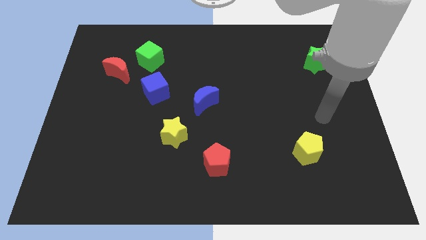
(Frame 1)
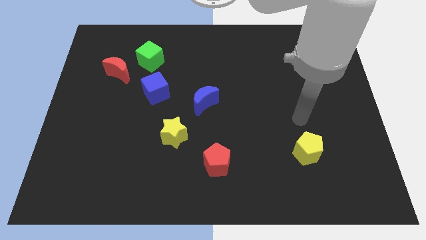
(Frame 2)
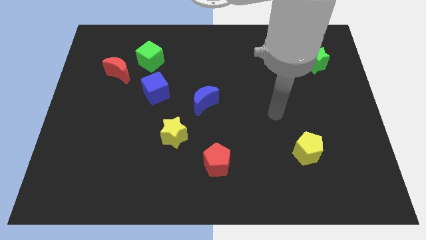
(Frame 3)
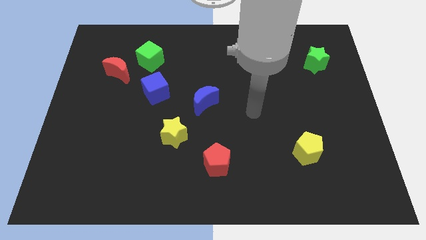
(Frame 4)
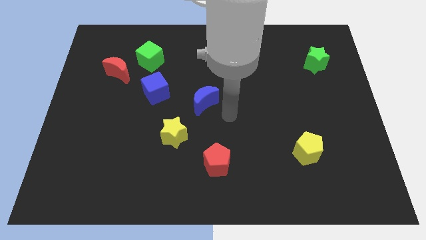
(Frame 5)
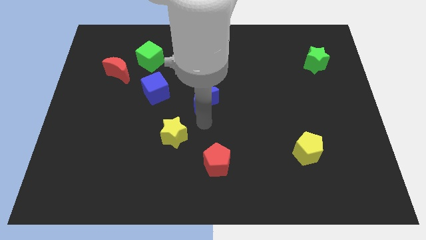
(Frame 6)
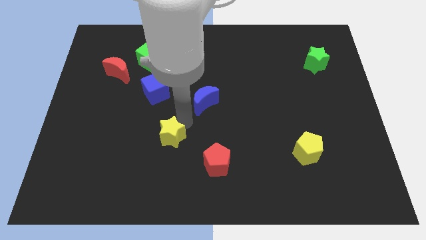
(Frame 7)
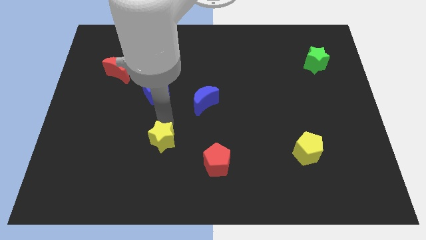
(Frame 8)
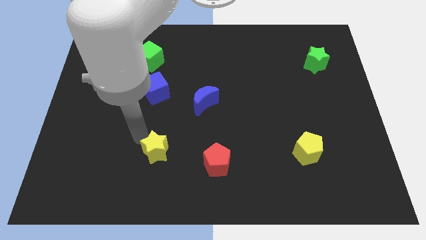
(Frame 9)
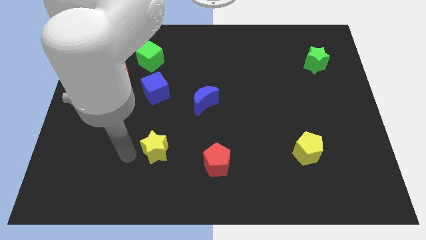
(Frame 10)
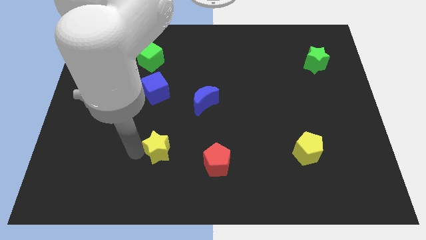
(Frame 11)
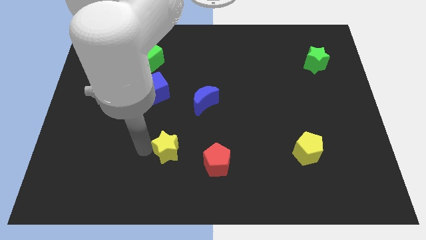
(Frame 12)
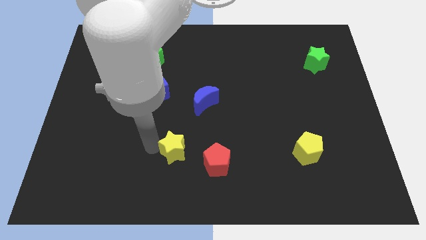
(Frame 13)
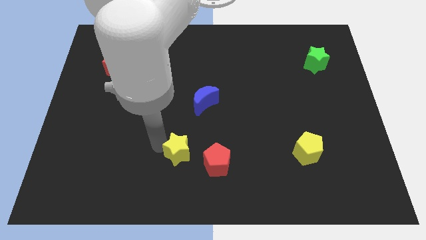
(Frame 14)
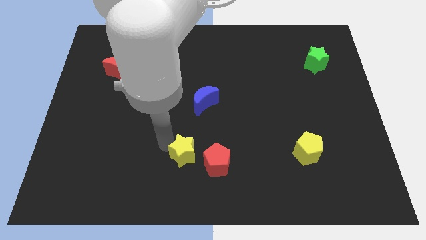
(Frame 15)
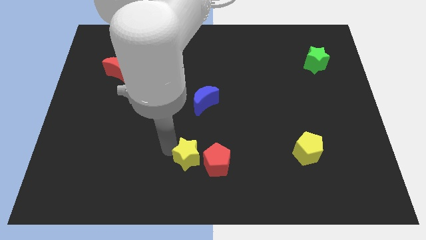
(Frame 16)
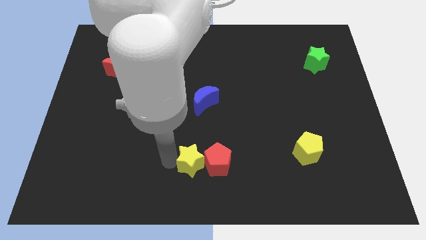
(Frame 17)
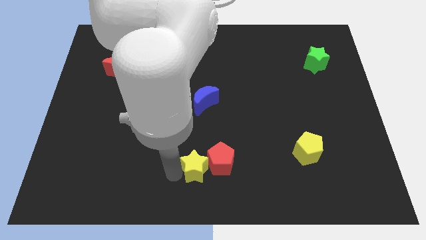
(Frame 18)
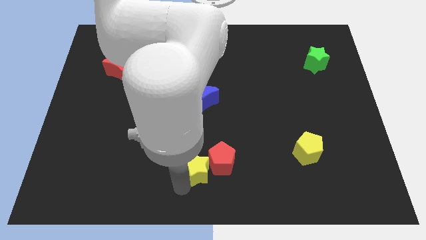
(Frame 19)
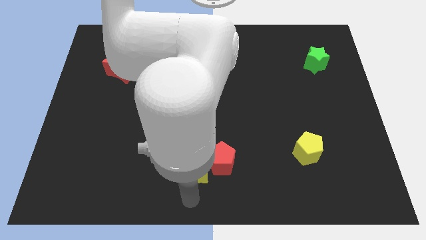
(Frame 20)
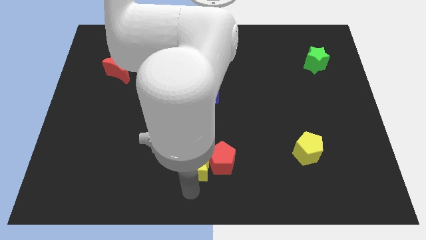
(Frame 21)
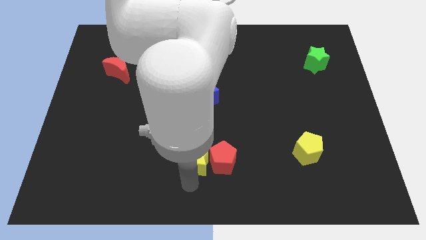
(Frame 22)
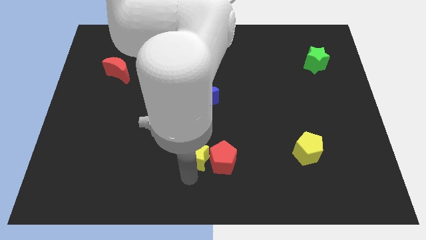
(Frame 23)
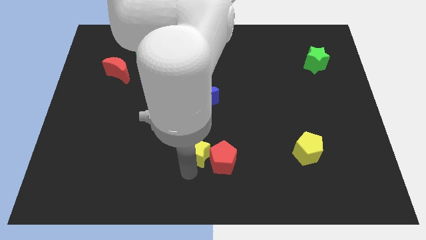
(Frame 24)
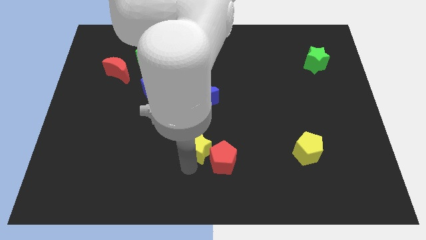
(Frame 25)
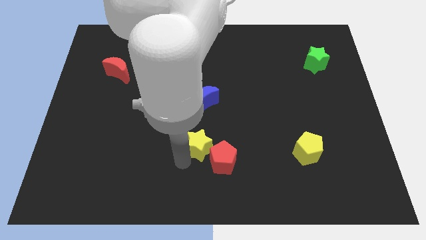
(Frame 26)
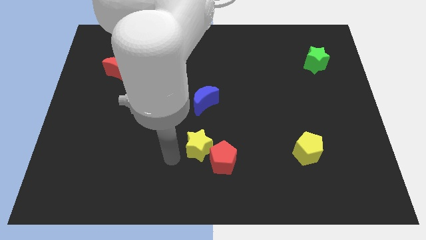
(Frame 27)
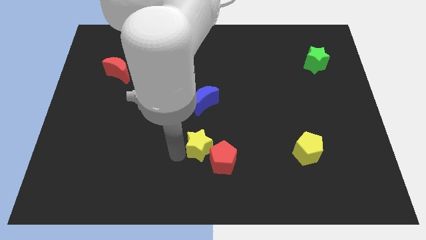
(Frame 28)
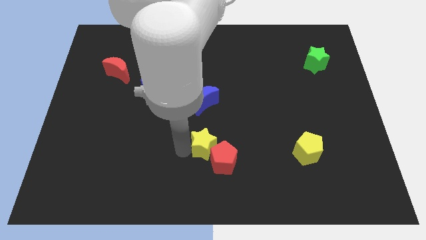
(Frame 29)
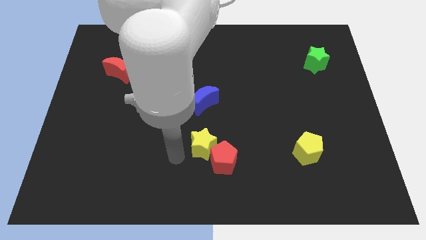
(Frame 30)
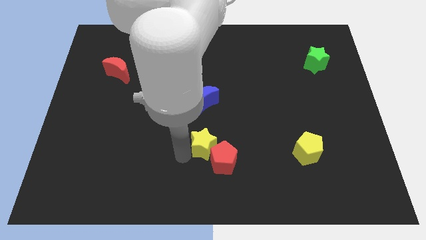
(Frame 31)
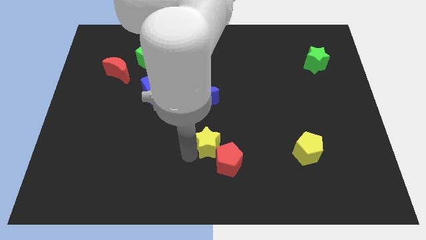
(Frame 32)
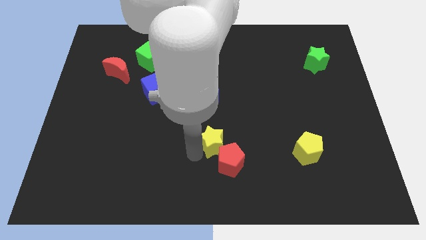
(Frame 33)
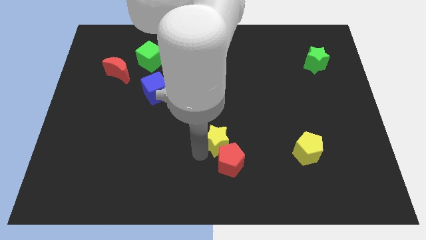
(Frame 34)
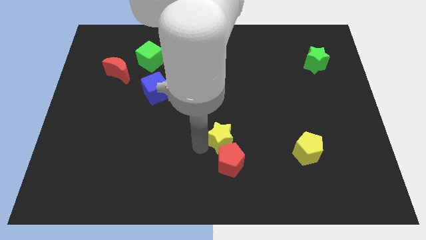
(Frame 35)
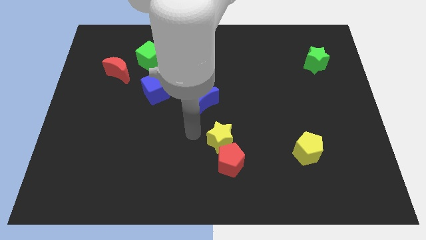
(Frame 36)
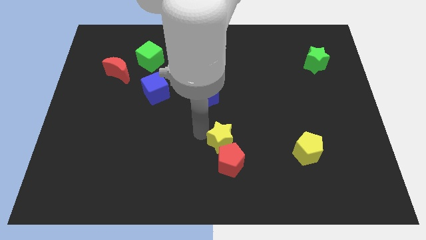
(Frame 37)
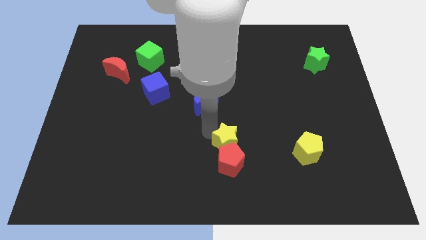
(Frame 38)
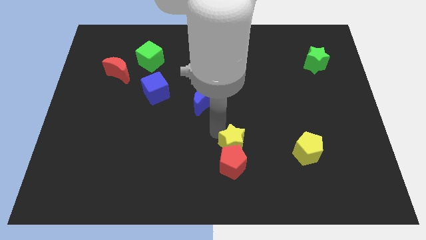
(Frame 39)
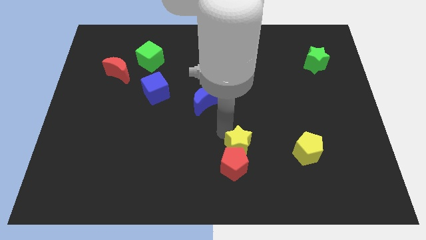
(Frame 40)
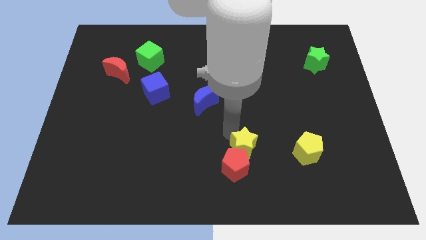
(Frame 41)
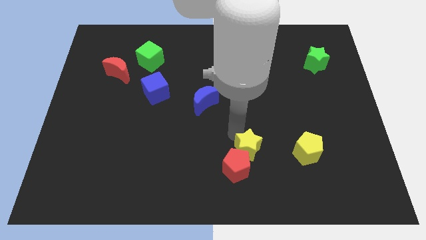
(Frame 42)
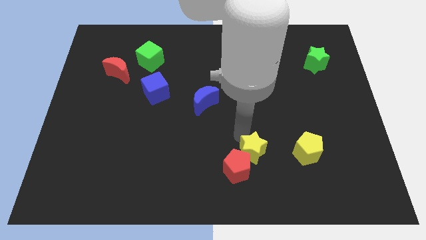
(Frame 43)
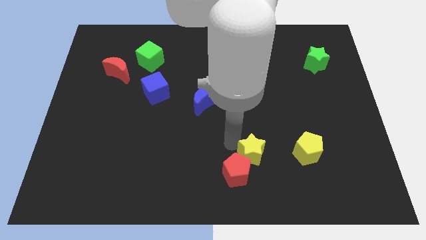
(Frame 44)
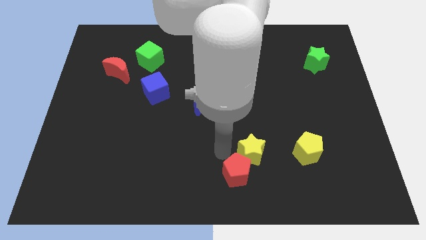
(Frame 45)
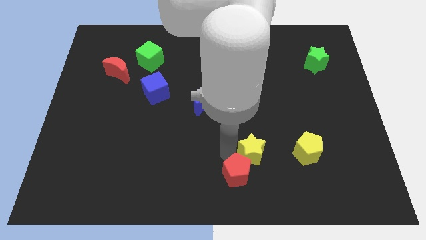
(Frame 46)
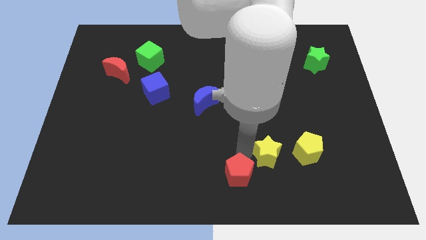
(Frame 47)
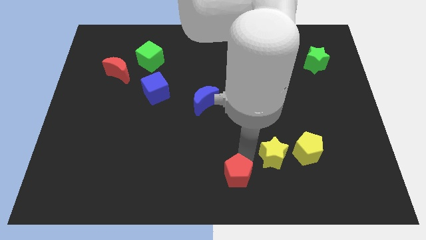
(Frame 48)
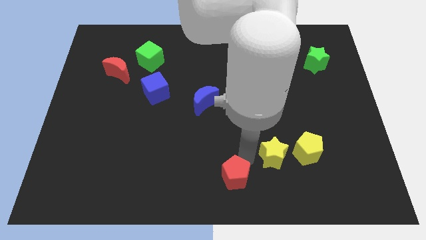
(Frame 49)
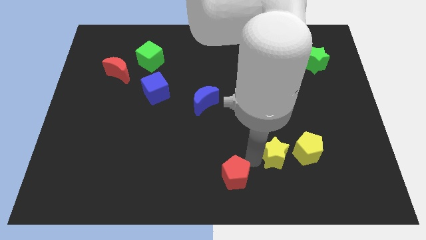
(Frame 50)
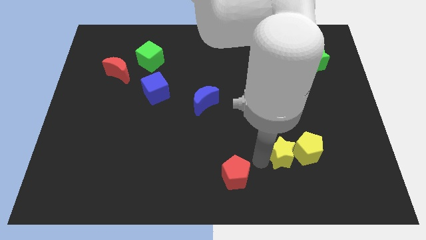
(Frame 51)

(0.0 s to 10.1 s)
push the yellow star towards the yellow pentagon

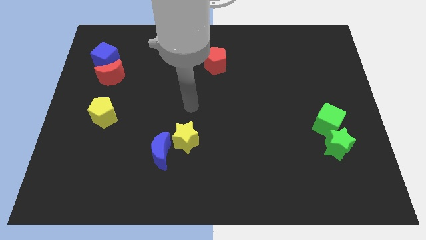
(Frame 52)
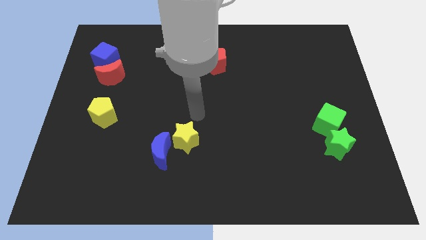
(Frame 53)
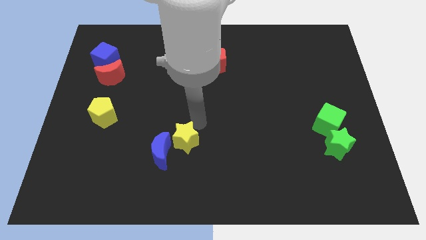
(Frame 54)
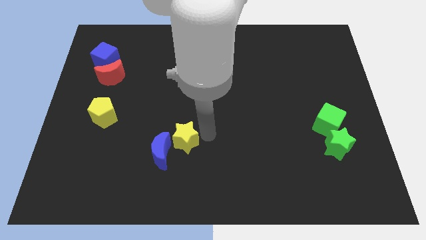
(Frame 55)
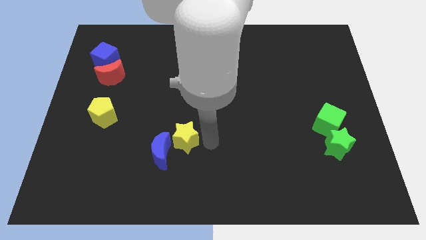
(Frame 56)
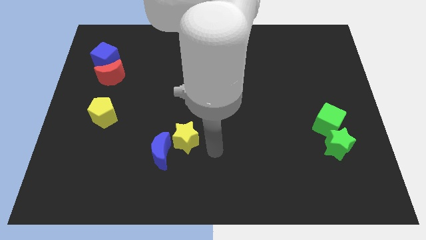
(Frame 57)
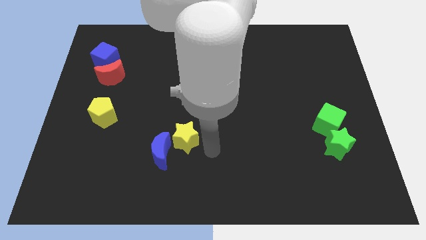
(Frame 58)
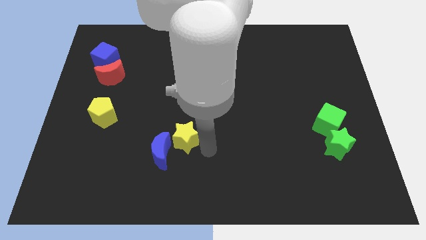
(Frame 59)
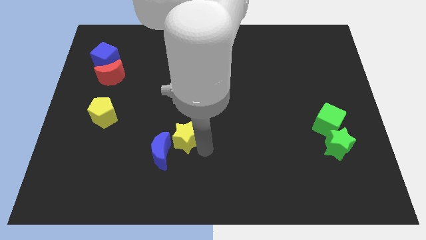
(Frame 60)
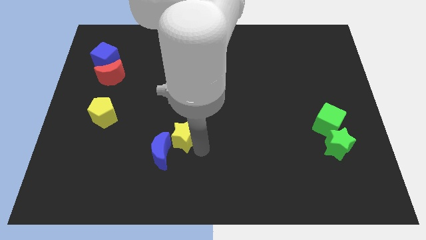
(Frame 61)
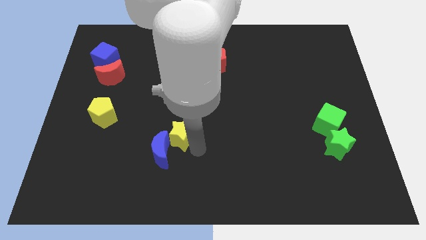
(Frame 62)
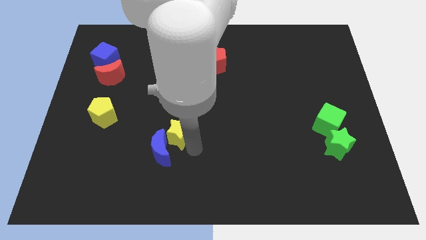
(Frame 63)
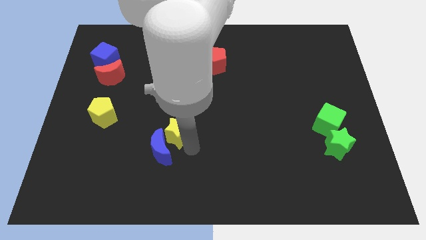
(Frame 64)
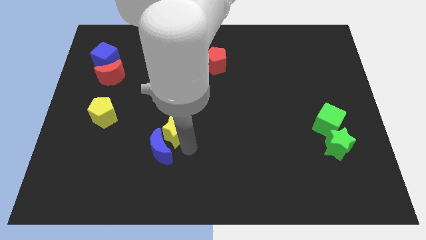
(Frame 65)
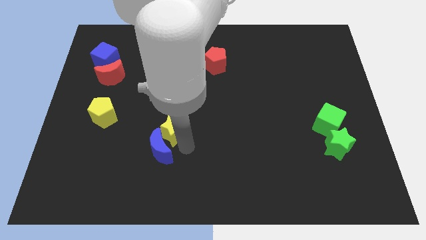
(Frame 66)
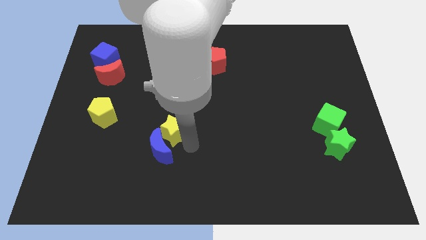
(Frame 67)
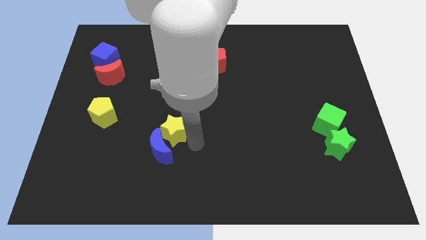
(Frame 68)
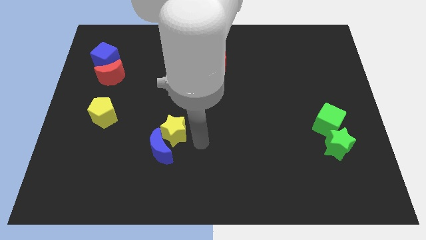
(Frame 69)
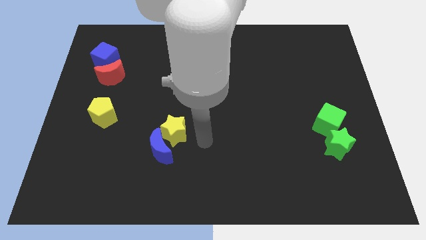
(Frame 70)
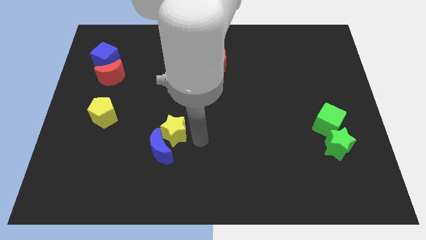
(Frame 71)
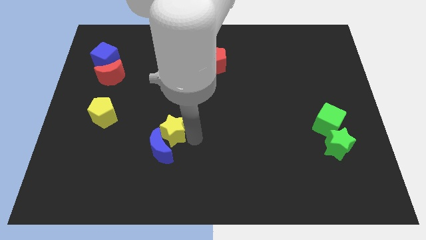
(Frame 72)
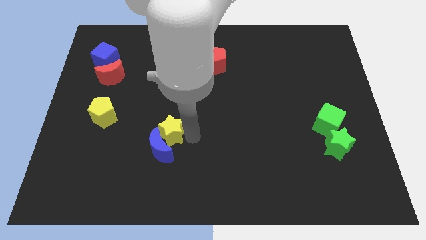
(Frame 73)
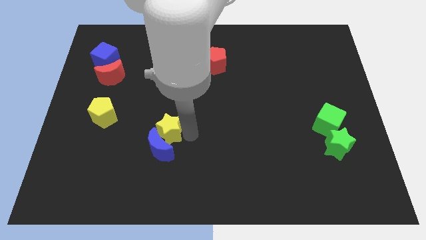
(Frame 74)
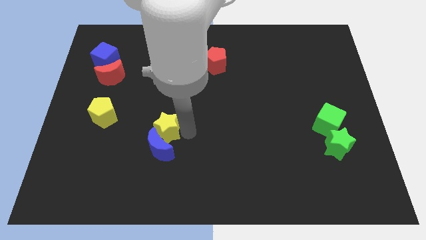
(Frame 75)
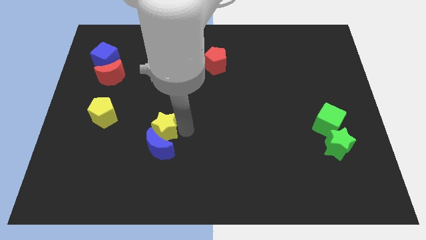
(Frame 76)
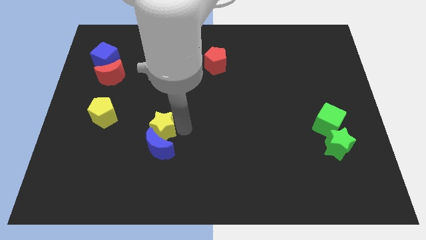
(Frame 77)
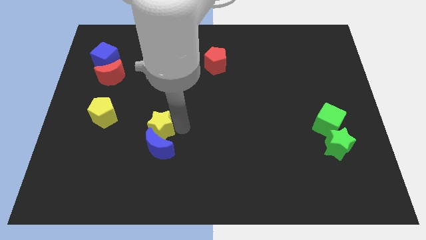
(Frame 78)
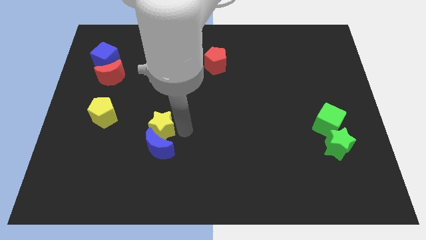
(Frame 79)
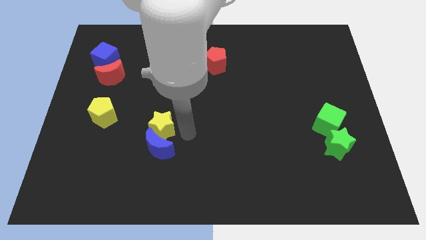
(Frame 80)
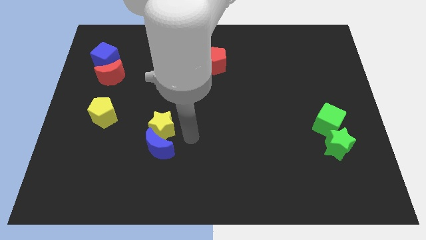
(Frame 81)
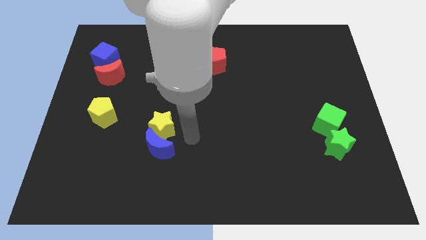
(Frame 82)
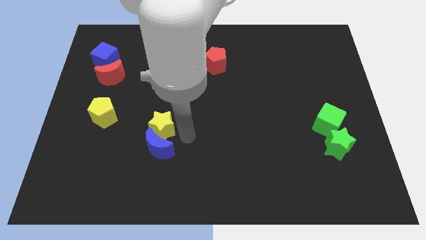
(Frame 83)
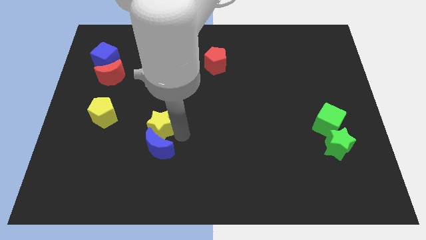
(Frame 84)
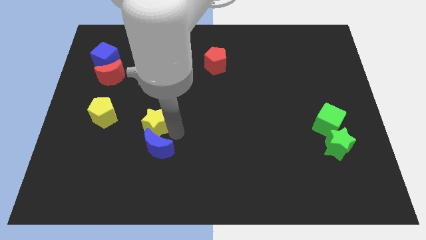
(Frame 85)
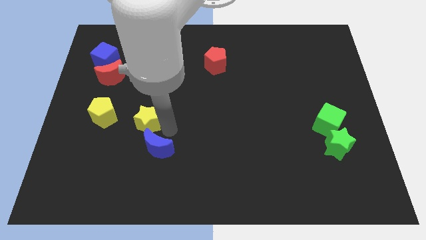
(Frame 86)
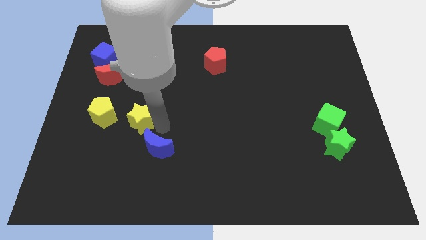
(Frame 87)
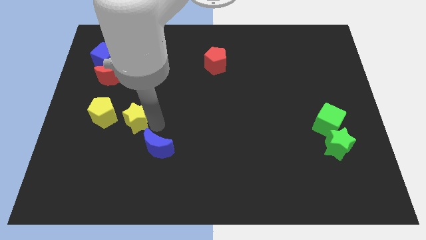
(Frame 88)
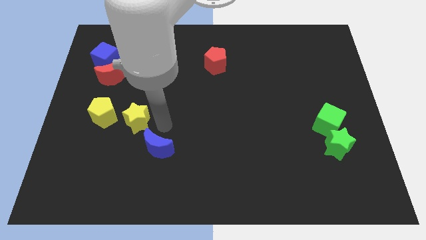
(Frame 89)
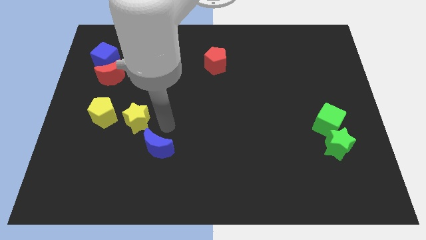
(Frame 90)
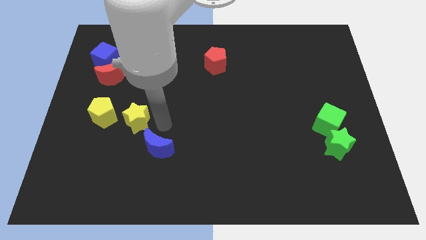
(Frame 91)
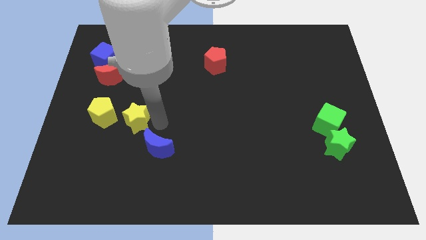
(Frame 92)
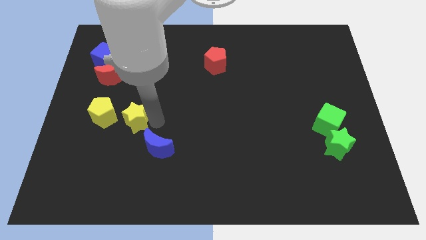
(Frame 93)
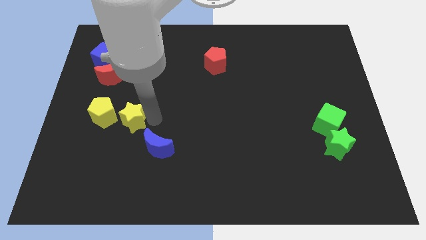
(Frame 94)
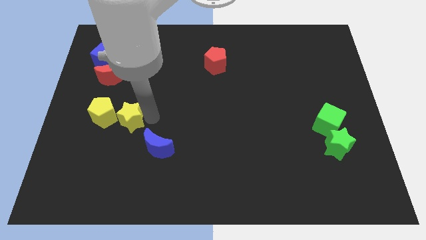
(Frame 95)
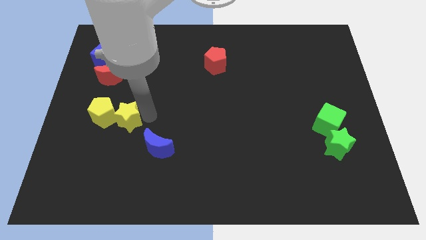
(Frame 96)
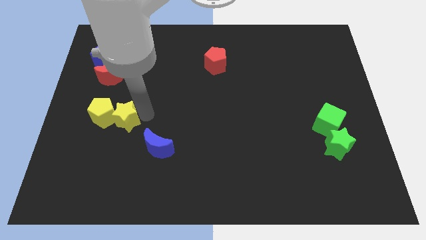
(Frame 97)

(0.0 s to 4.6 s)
put the yellow star towards the yellow pentagon
